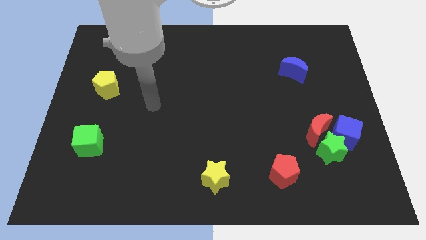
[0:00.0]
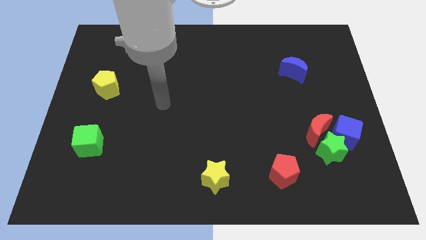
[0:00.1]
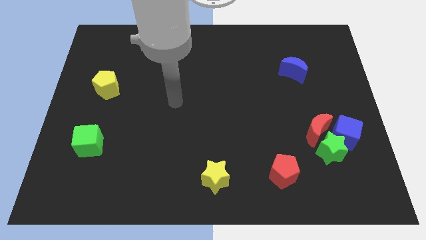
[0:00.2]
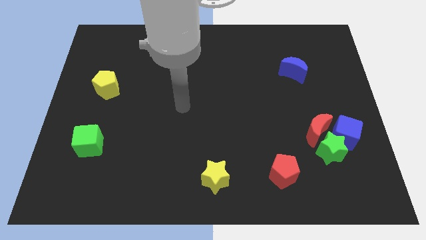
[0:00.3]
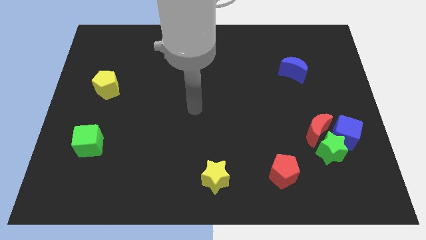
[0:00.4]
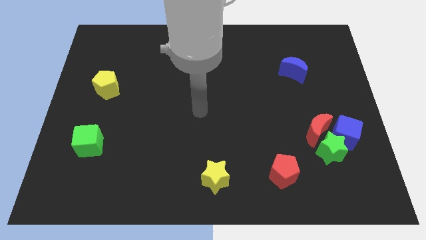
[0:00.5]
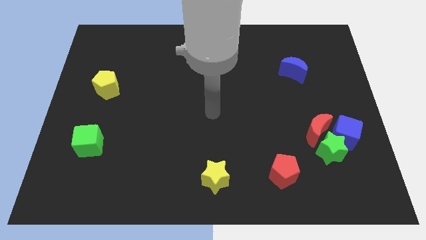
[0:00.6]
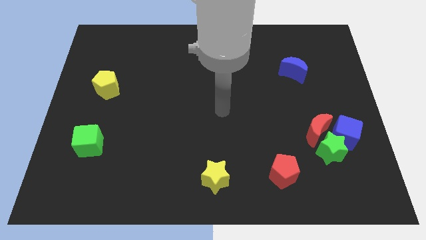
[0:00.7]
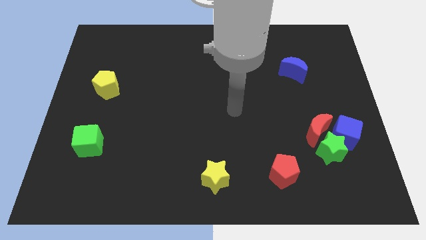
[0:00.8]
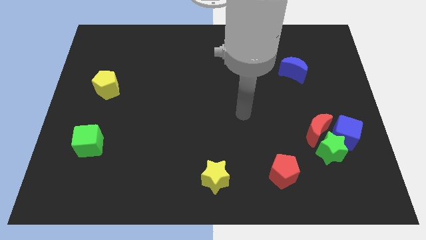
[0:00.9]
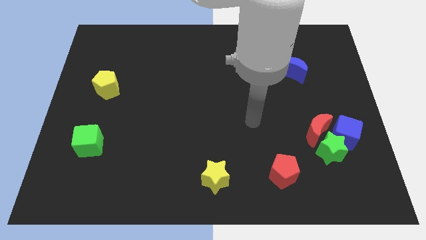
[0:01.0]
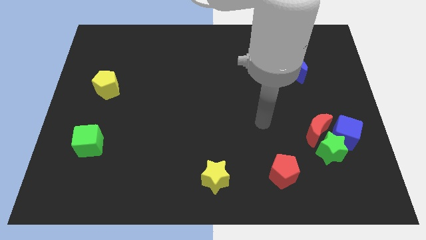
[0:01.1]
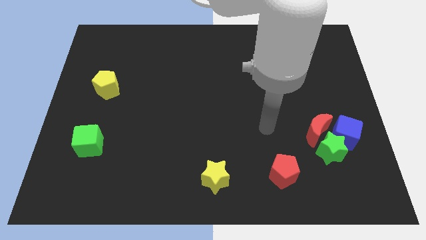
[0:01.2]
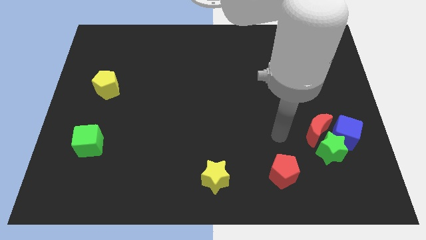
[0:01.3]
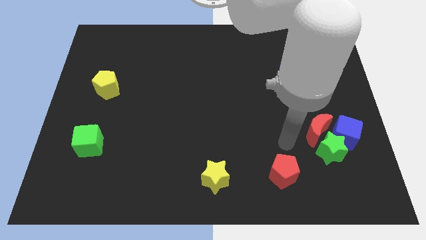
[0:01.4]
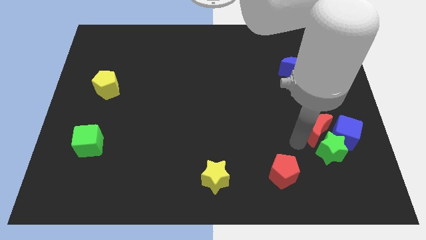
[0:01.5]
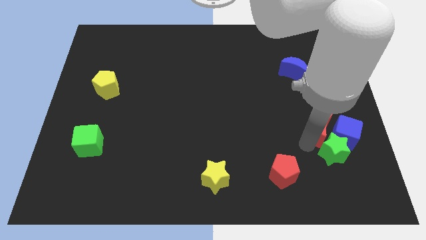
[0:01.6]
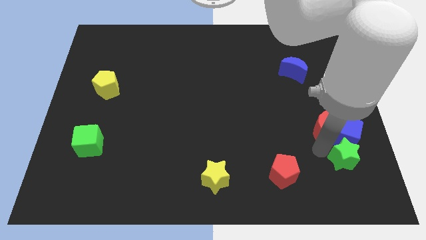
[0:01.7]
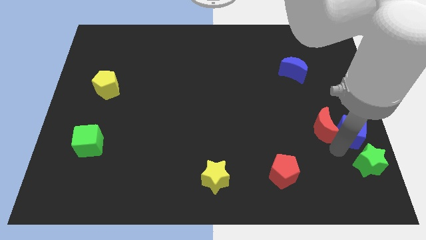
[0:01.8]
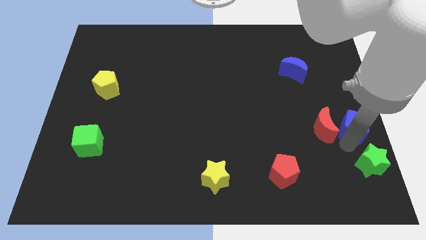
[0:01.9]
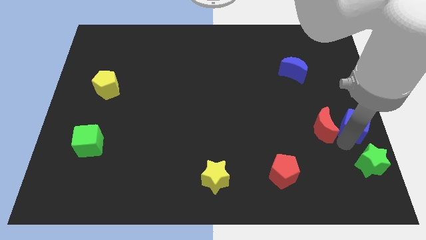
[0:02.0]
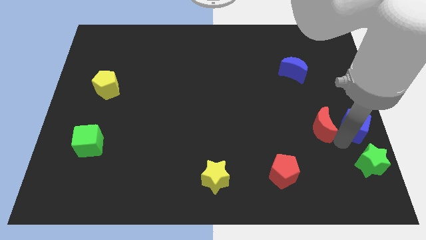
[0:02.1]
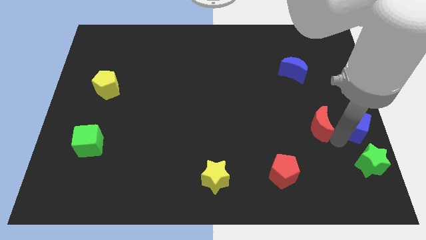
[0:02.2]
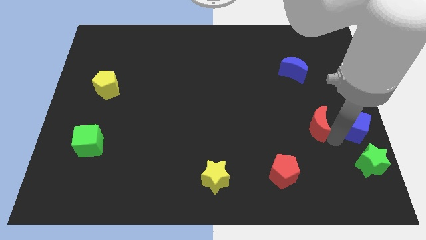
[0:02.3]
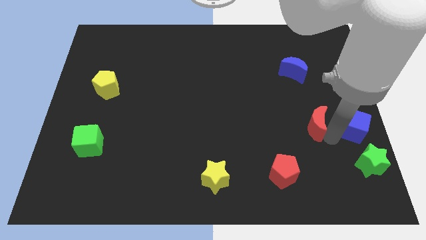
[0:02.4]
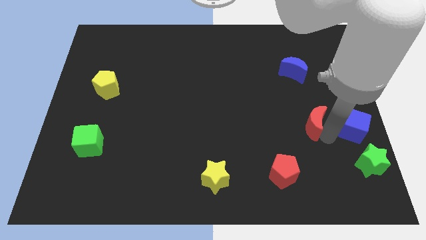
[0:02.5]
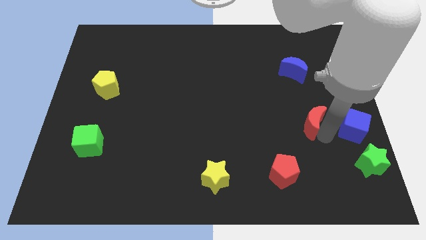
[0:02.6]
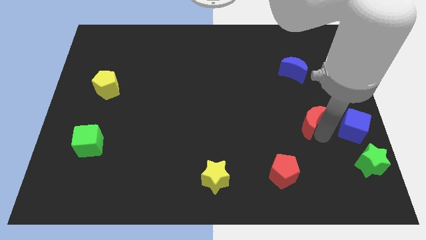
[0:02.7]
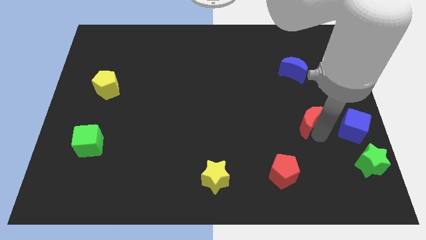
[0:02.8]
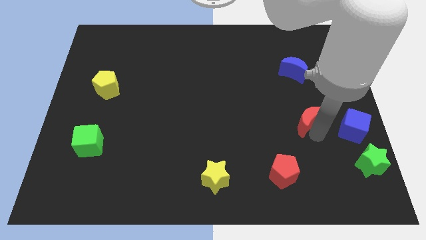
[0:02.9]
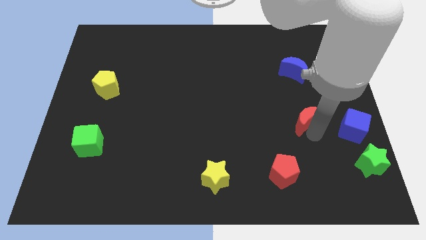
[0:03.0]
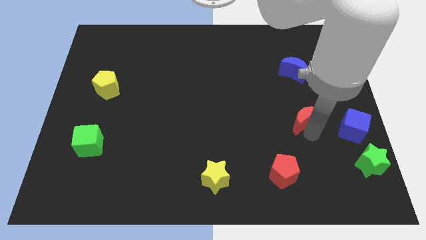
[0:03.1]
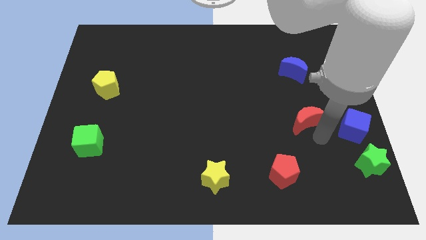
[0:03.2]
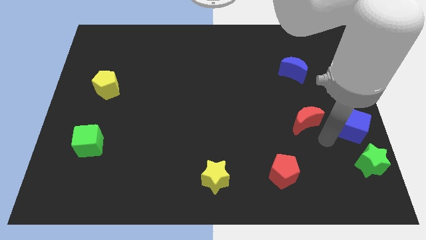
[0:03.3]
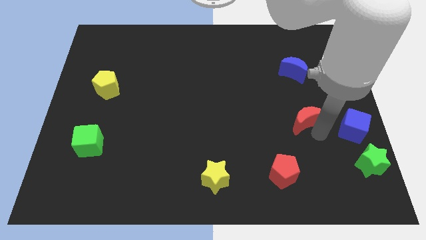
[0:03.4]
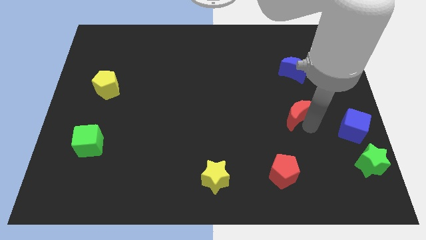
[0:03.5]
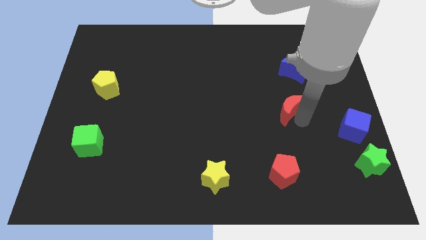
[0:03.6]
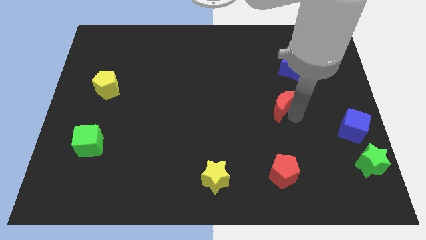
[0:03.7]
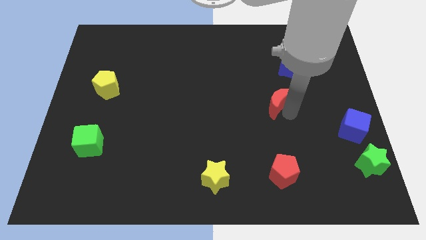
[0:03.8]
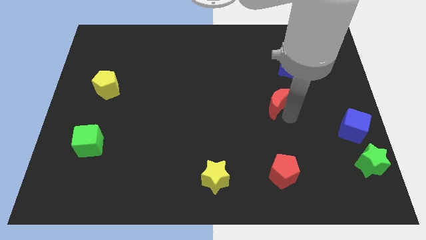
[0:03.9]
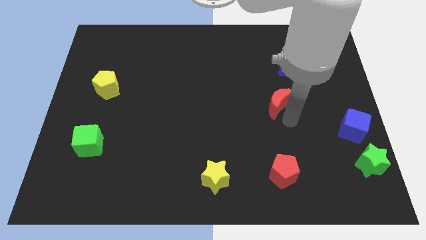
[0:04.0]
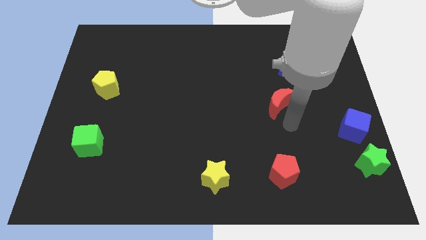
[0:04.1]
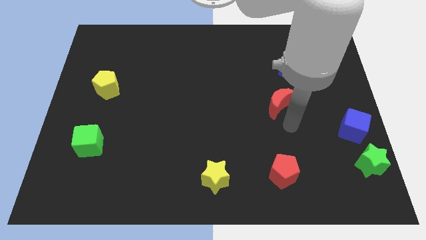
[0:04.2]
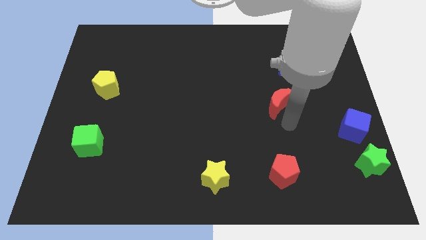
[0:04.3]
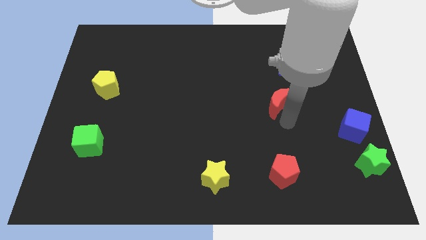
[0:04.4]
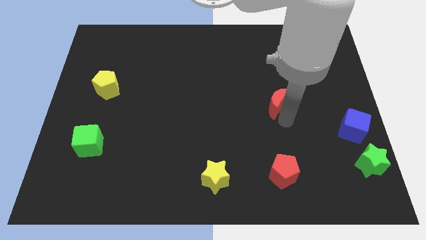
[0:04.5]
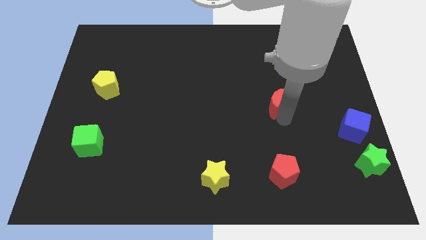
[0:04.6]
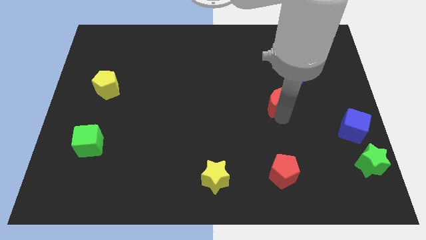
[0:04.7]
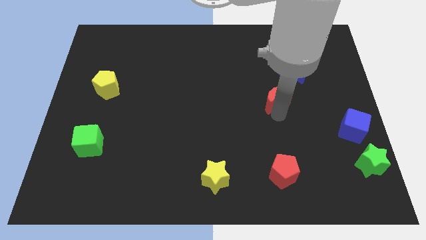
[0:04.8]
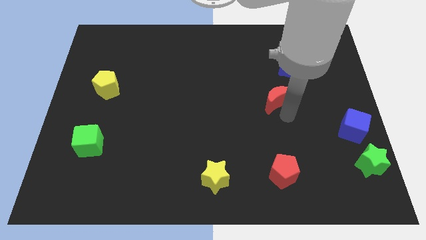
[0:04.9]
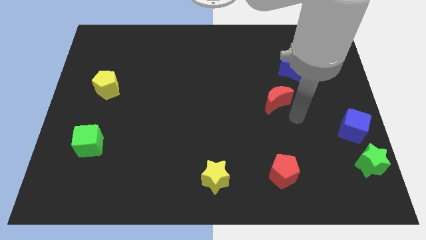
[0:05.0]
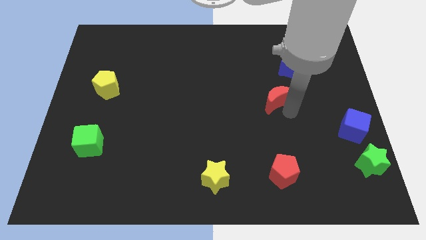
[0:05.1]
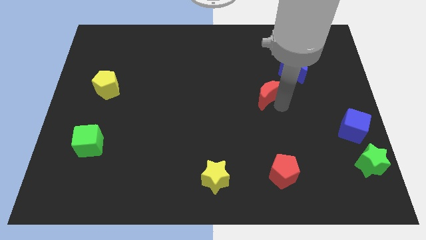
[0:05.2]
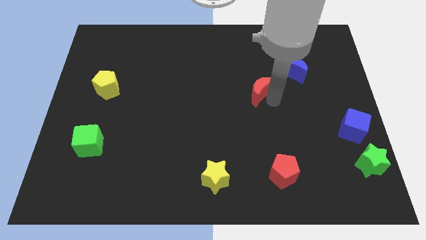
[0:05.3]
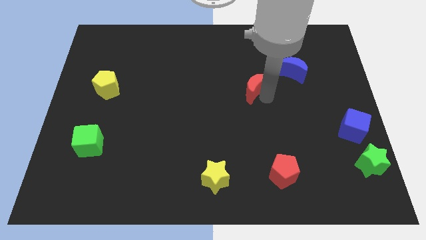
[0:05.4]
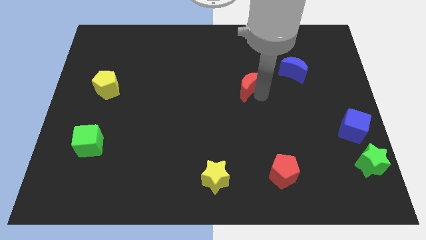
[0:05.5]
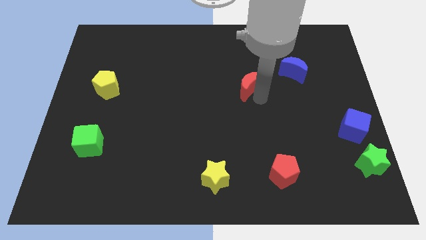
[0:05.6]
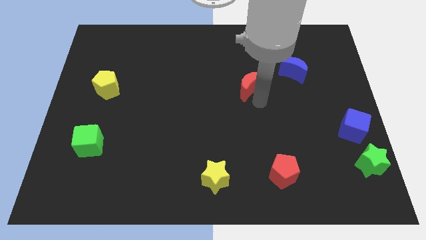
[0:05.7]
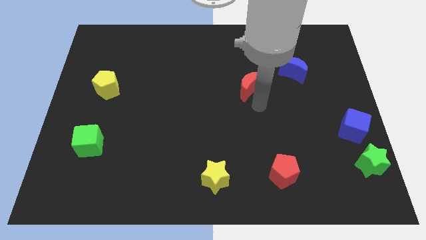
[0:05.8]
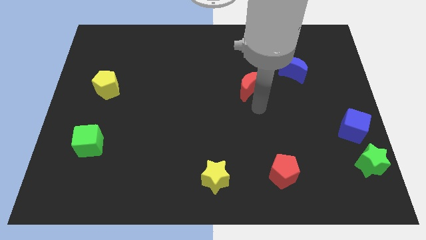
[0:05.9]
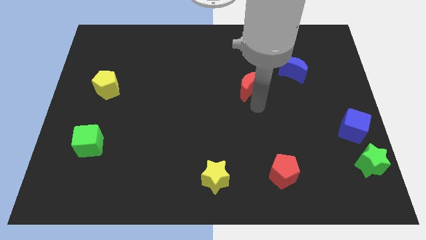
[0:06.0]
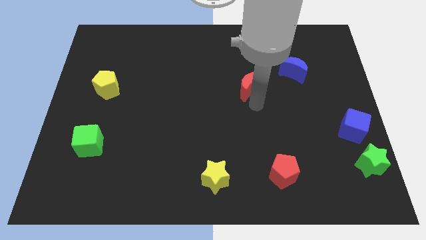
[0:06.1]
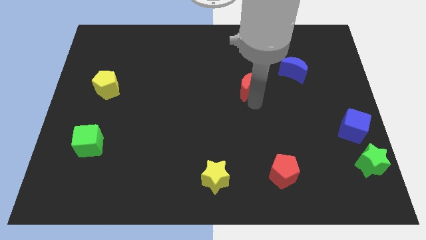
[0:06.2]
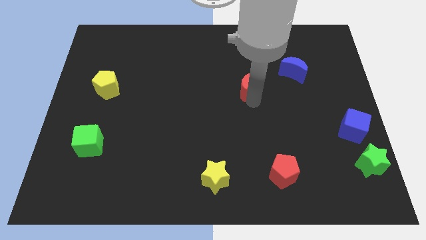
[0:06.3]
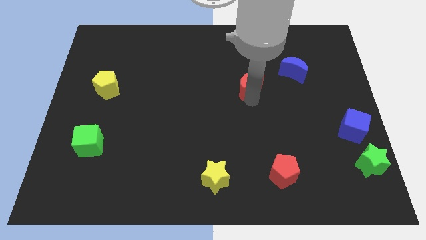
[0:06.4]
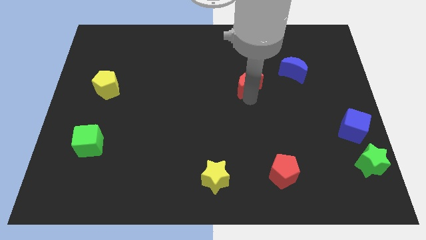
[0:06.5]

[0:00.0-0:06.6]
push the red moon up and then left

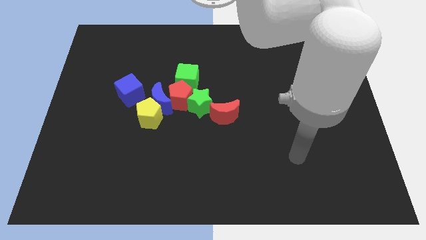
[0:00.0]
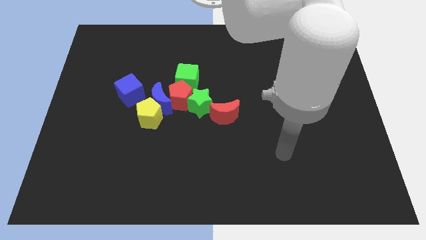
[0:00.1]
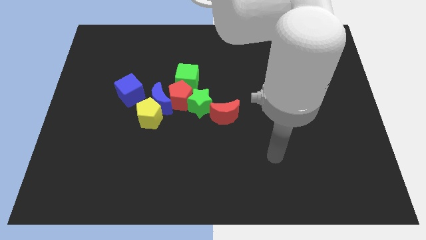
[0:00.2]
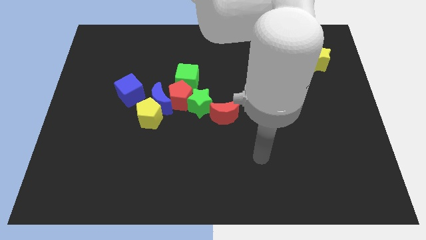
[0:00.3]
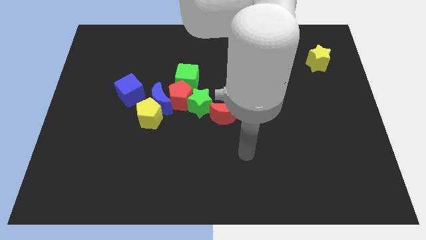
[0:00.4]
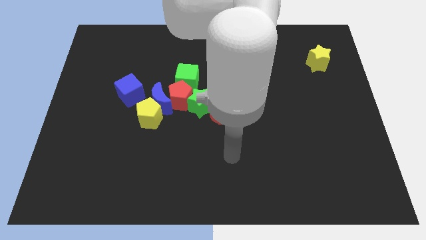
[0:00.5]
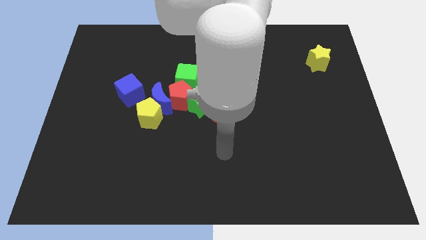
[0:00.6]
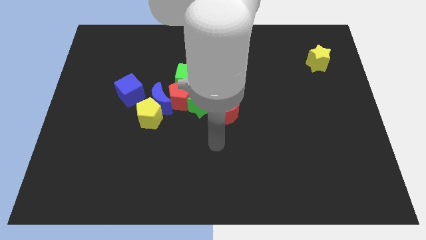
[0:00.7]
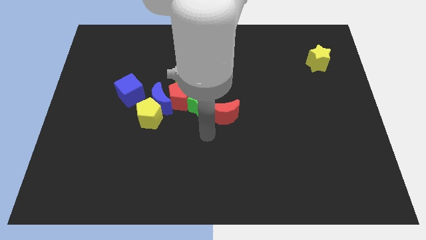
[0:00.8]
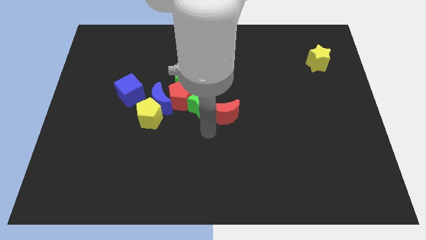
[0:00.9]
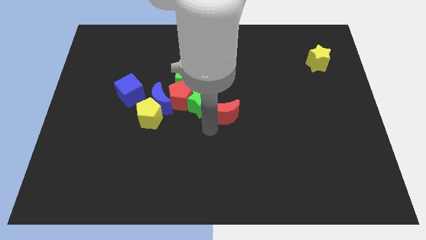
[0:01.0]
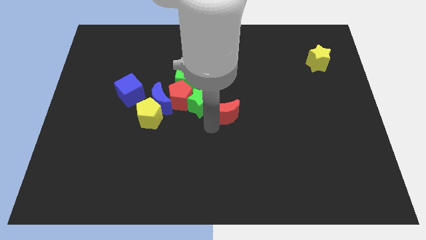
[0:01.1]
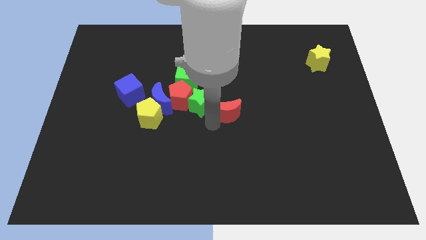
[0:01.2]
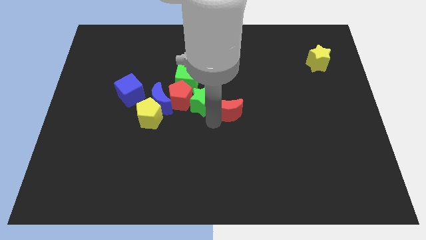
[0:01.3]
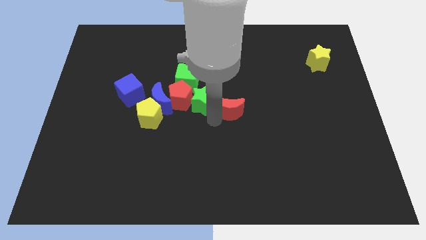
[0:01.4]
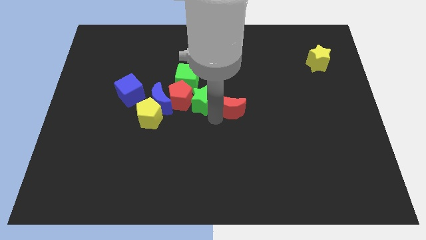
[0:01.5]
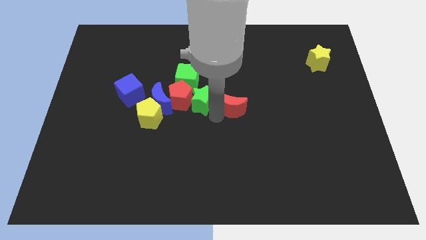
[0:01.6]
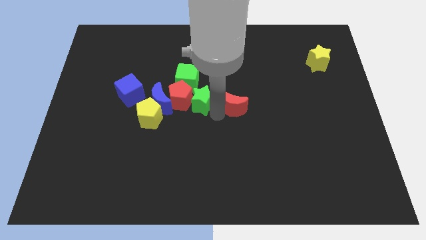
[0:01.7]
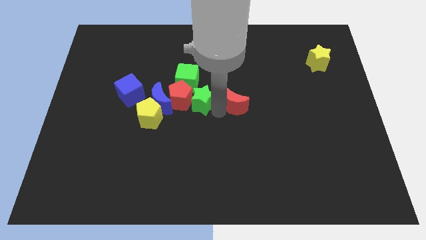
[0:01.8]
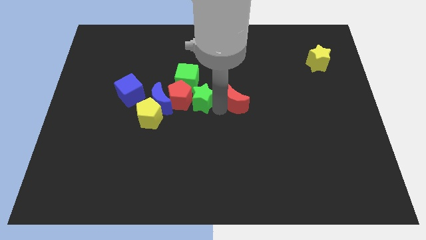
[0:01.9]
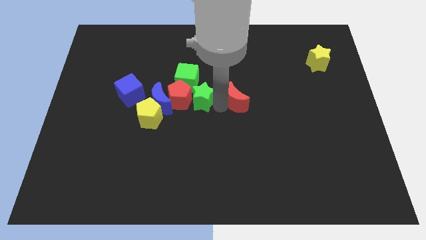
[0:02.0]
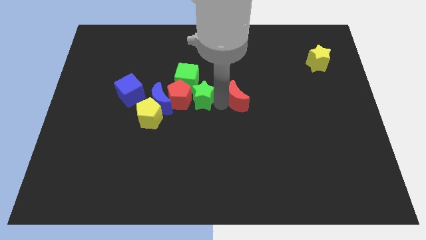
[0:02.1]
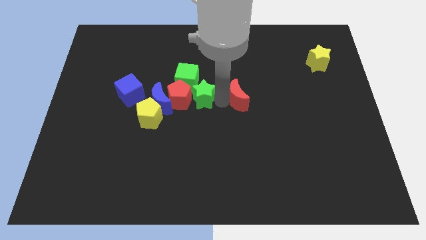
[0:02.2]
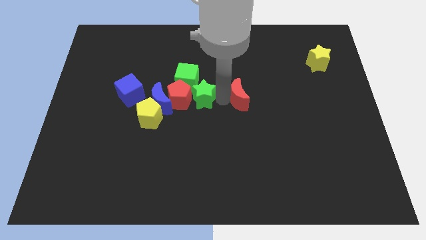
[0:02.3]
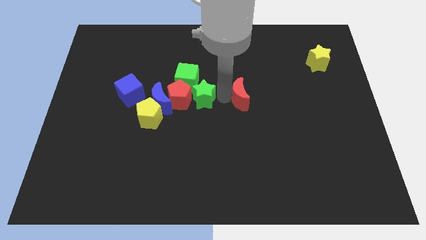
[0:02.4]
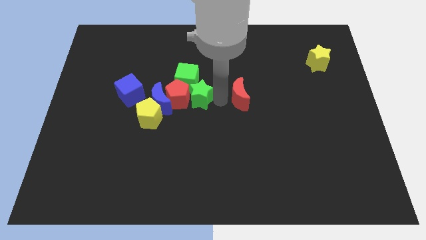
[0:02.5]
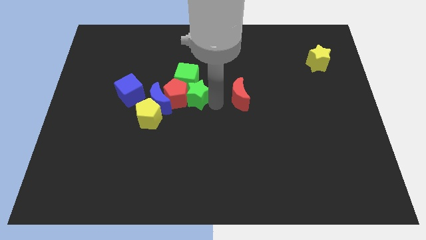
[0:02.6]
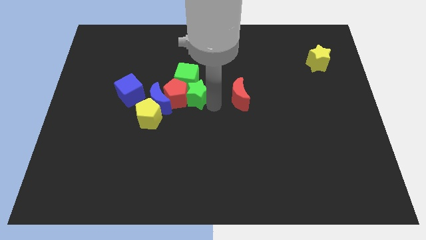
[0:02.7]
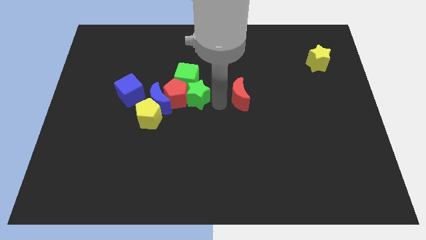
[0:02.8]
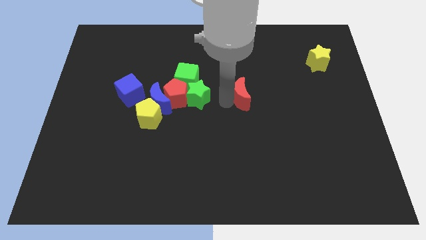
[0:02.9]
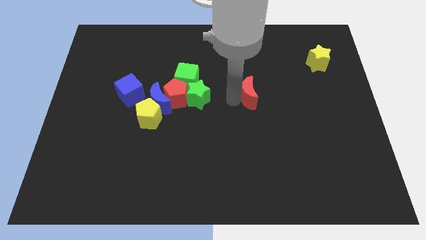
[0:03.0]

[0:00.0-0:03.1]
push the red moon diagonally upwards and right a little bit
